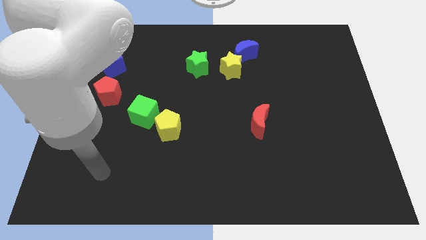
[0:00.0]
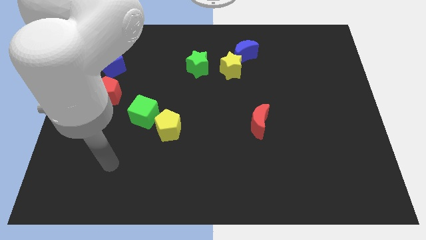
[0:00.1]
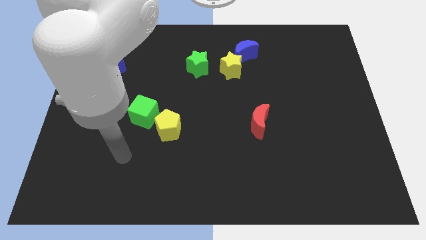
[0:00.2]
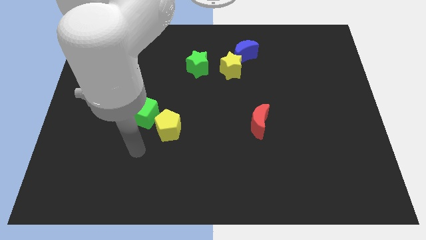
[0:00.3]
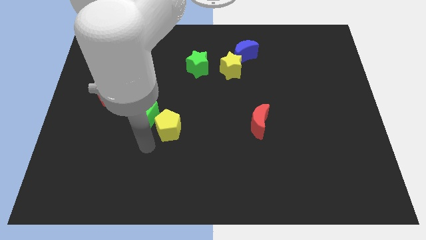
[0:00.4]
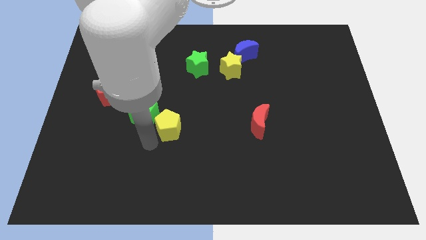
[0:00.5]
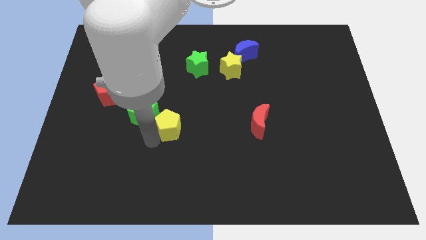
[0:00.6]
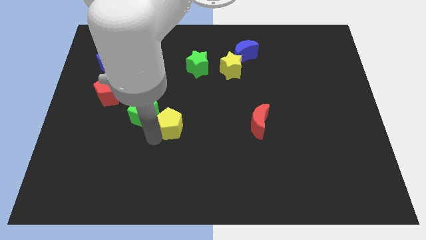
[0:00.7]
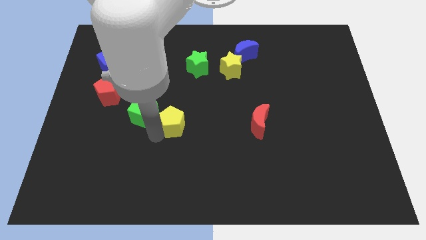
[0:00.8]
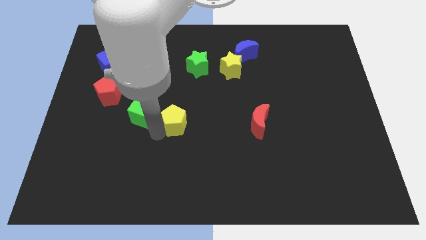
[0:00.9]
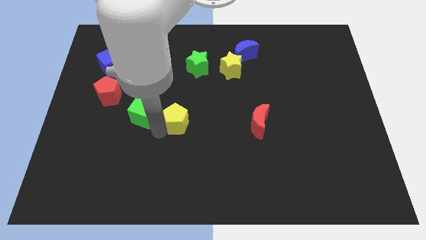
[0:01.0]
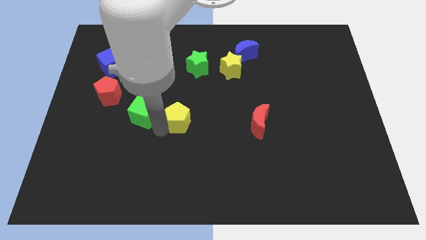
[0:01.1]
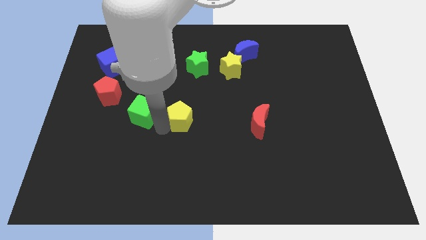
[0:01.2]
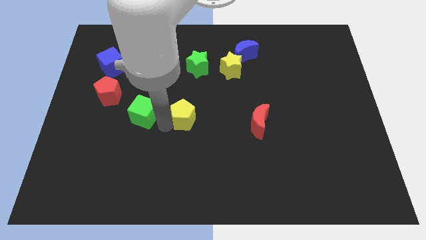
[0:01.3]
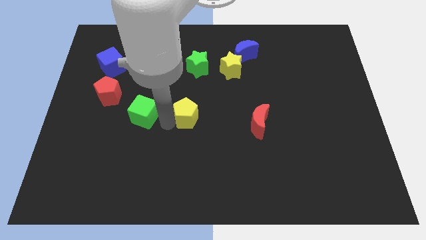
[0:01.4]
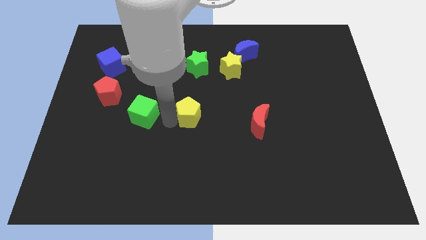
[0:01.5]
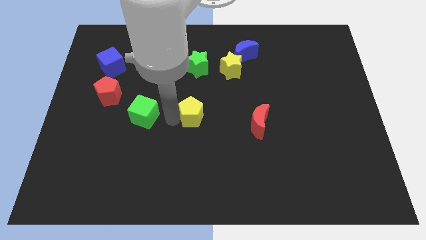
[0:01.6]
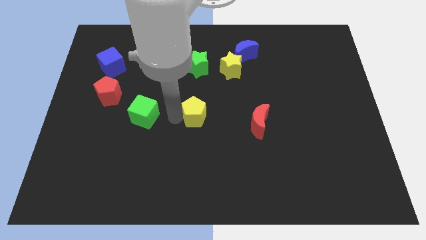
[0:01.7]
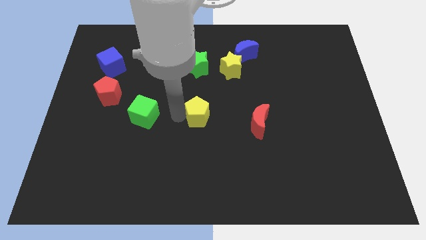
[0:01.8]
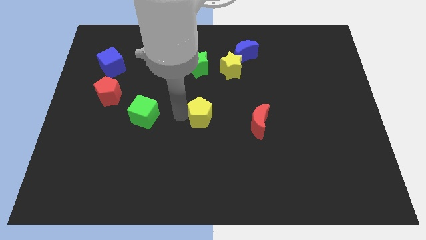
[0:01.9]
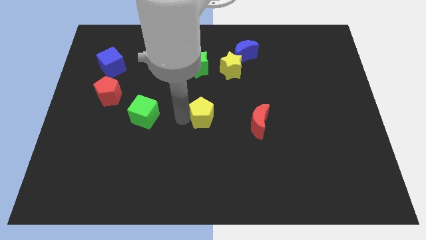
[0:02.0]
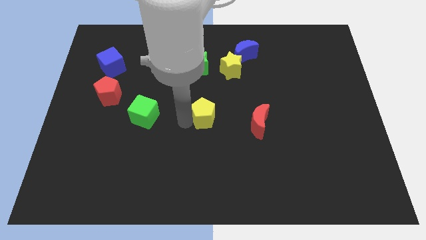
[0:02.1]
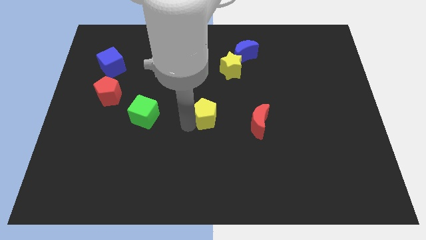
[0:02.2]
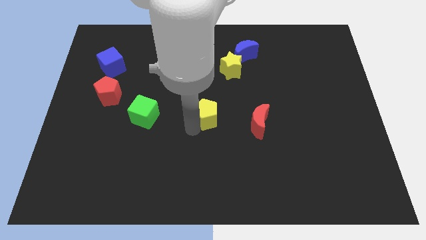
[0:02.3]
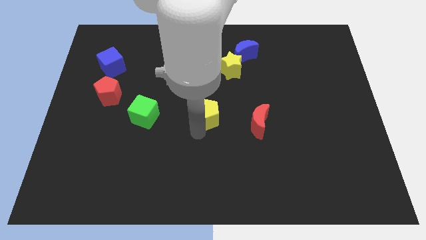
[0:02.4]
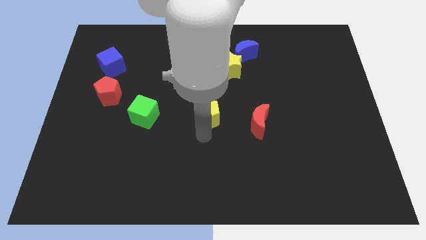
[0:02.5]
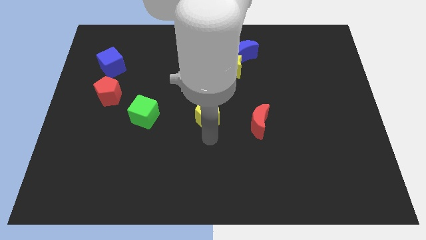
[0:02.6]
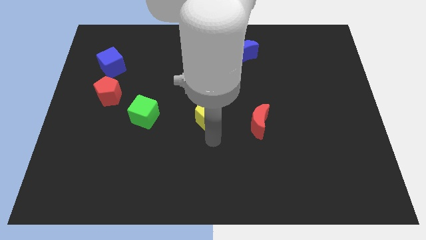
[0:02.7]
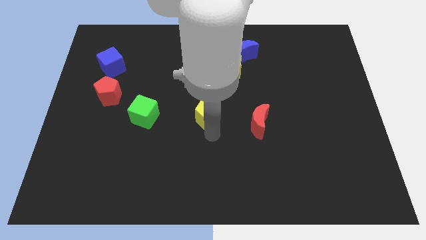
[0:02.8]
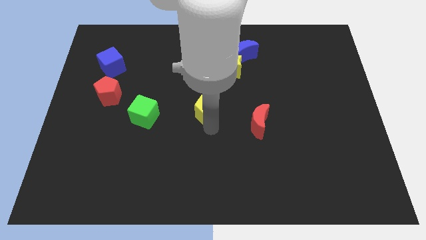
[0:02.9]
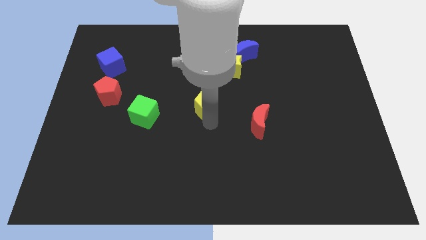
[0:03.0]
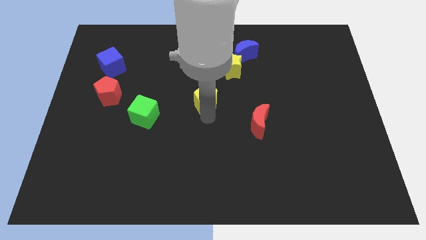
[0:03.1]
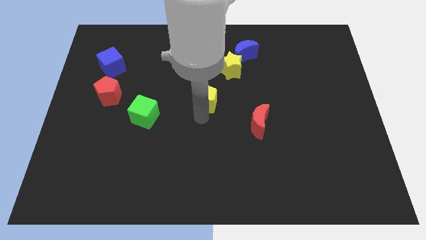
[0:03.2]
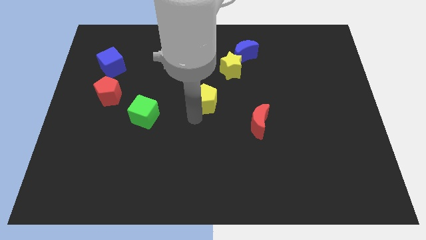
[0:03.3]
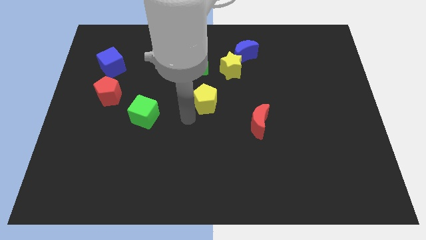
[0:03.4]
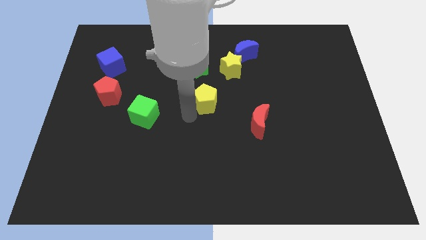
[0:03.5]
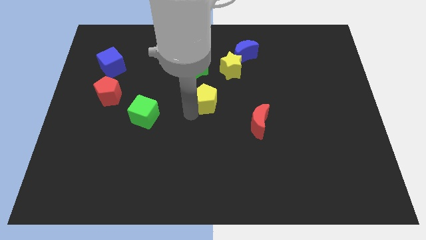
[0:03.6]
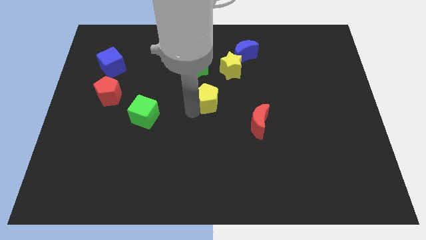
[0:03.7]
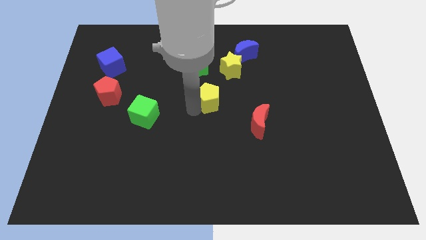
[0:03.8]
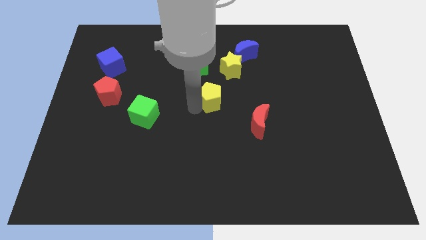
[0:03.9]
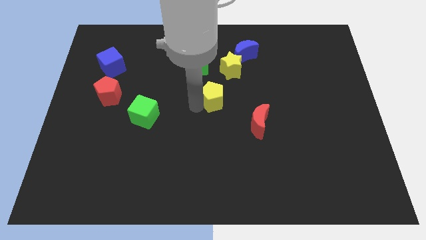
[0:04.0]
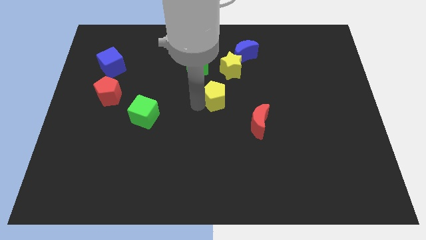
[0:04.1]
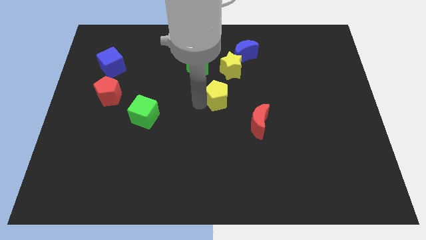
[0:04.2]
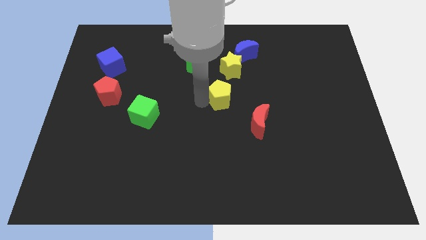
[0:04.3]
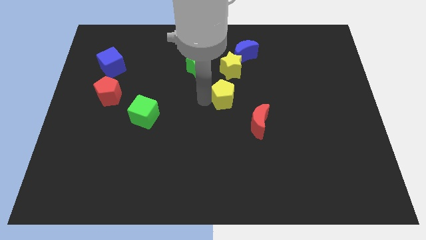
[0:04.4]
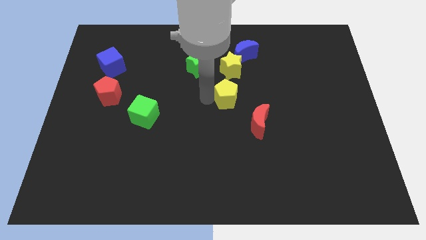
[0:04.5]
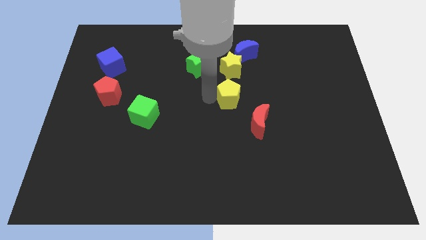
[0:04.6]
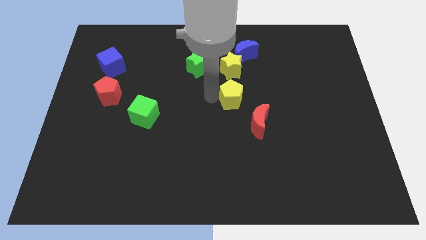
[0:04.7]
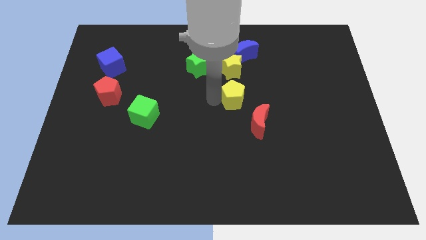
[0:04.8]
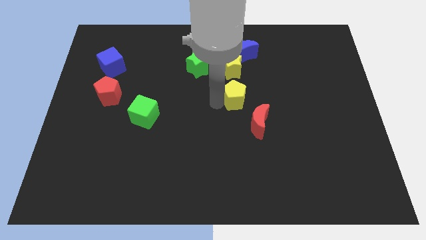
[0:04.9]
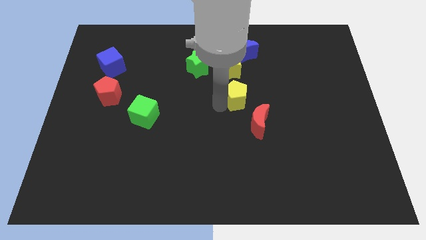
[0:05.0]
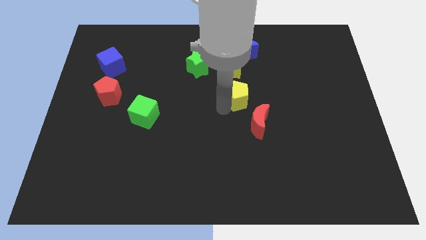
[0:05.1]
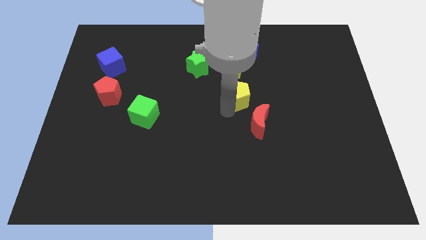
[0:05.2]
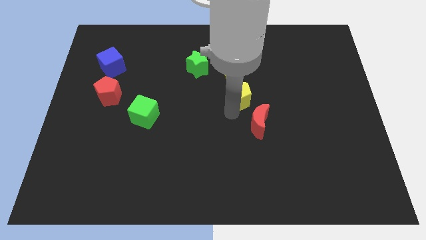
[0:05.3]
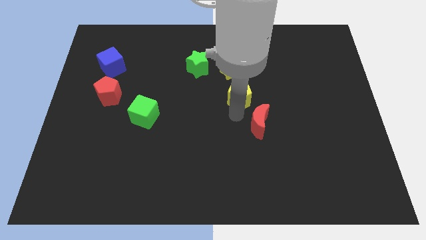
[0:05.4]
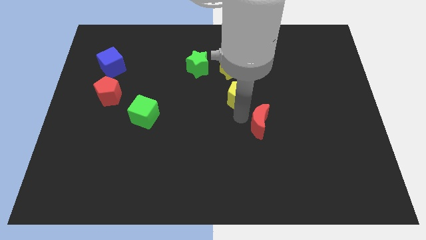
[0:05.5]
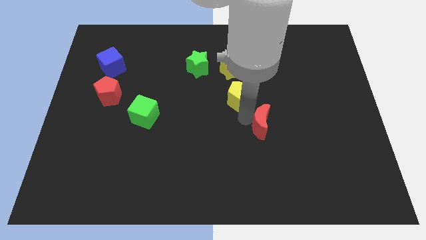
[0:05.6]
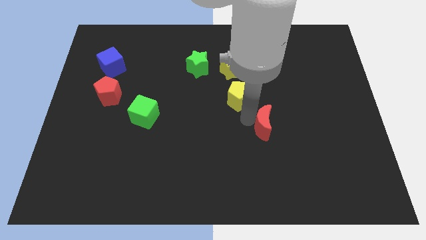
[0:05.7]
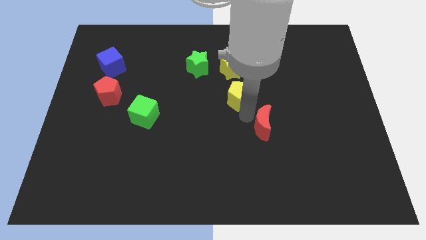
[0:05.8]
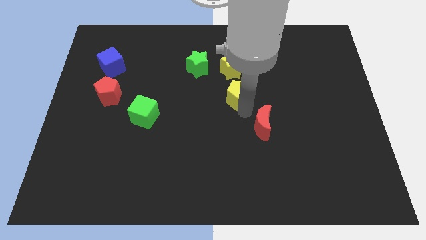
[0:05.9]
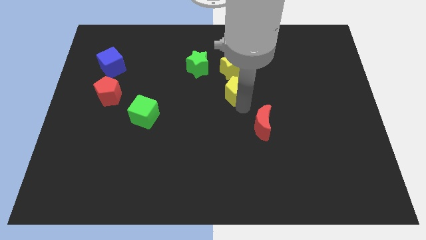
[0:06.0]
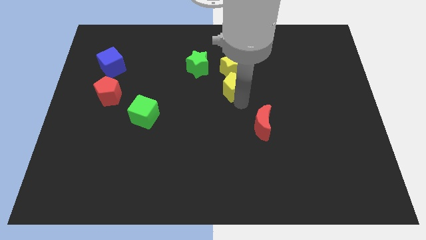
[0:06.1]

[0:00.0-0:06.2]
put the yellow pentagon diagonally down and to the right of the yellow star

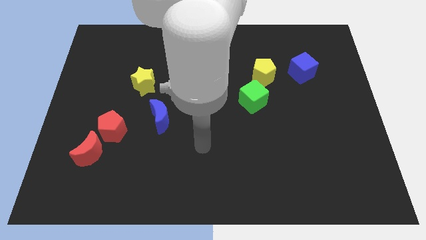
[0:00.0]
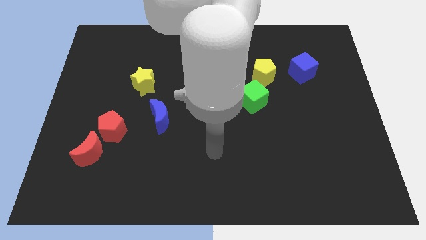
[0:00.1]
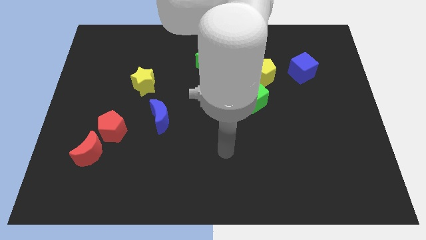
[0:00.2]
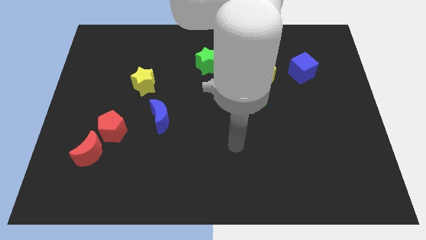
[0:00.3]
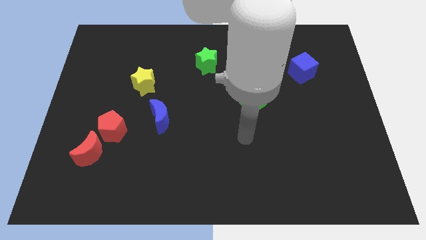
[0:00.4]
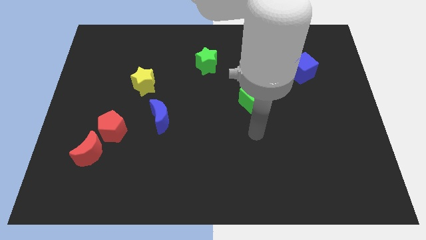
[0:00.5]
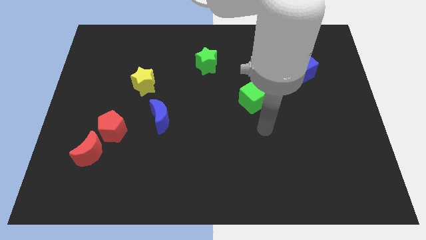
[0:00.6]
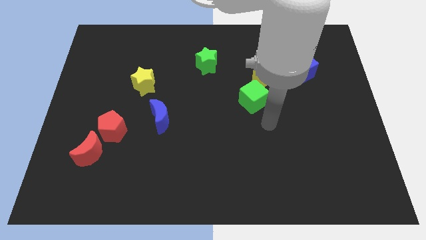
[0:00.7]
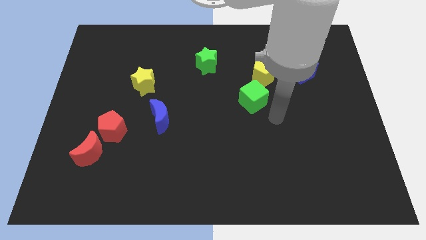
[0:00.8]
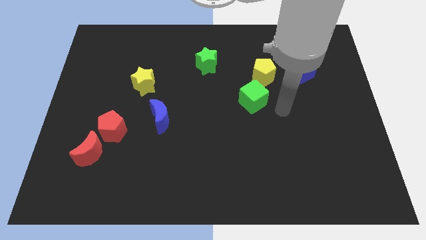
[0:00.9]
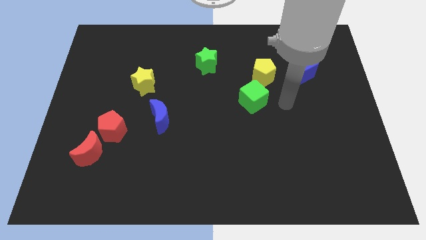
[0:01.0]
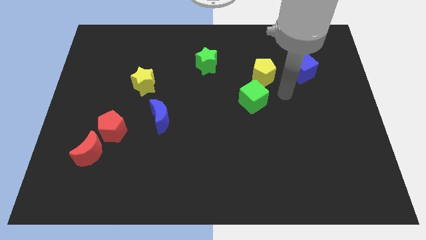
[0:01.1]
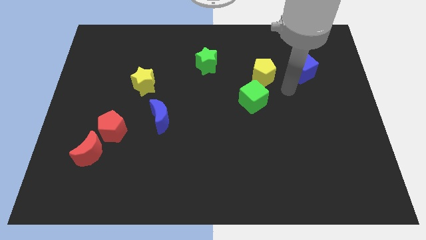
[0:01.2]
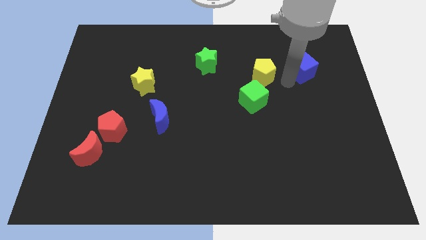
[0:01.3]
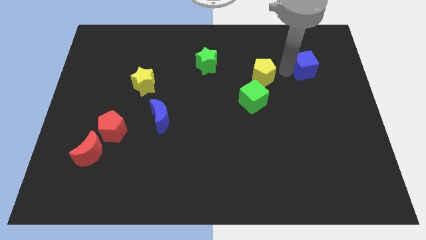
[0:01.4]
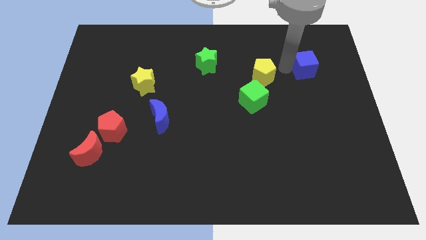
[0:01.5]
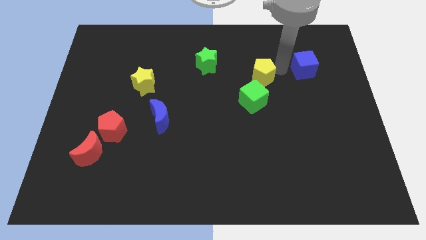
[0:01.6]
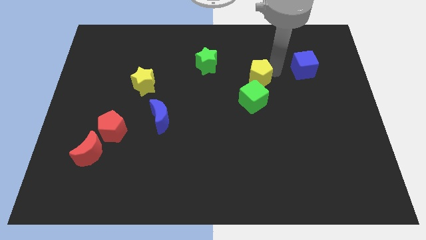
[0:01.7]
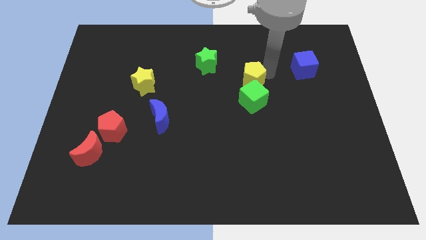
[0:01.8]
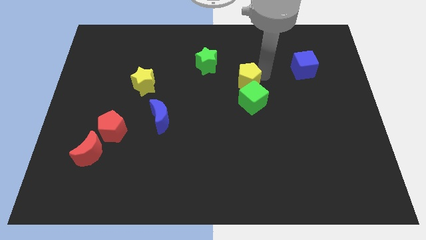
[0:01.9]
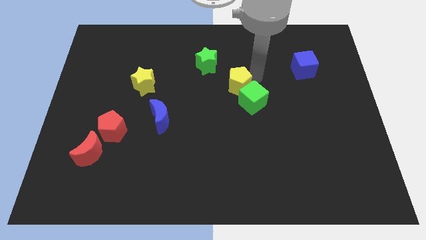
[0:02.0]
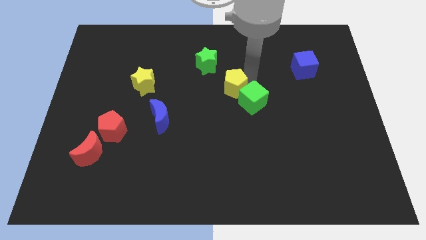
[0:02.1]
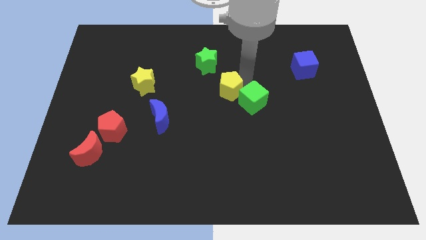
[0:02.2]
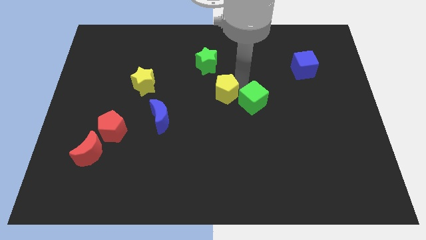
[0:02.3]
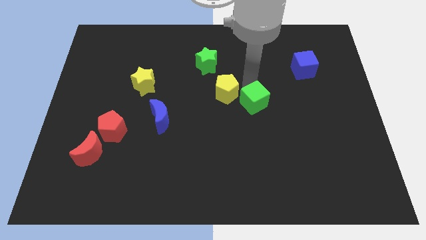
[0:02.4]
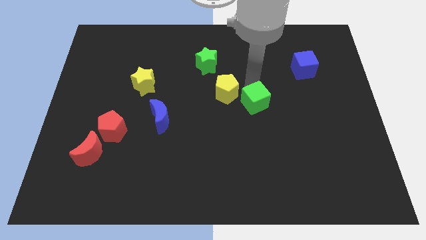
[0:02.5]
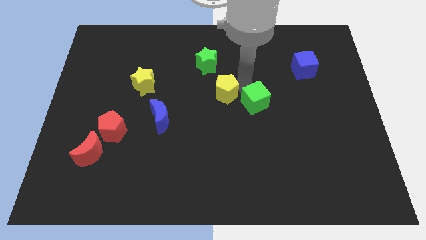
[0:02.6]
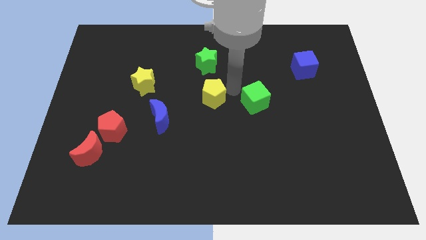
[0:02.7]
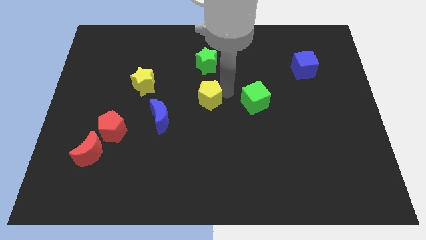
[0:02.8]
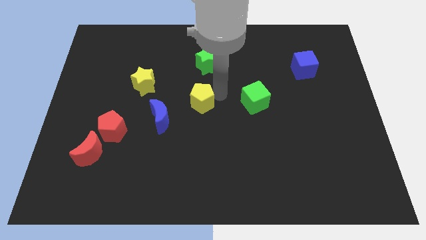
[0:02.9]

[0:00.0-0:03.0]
put the yellow pentagon to the top right side of the blue moon
